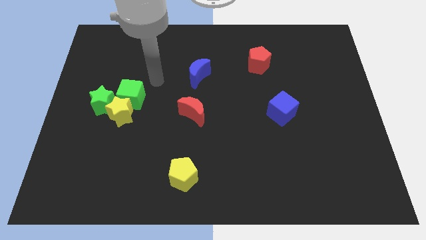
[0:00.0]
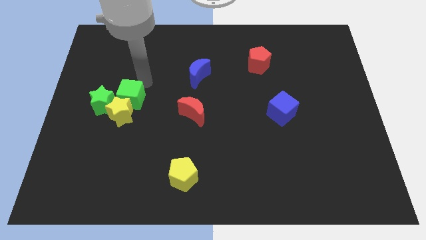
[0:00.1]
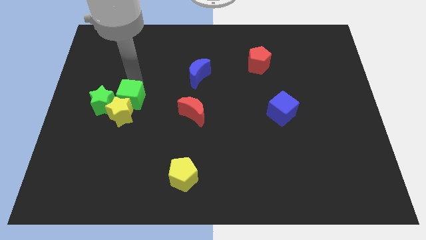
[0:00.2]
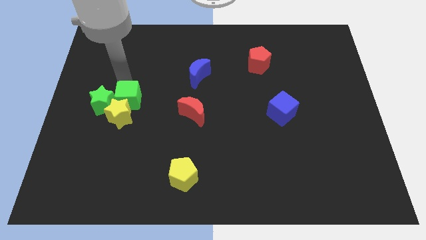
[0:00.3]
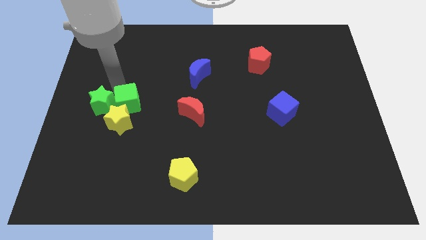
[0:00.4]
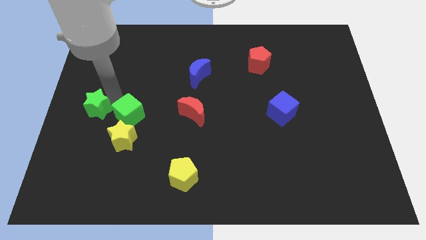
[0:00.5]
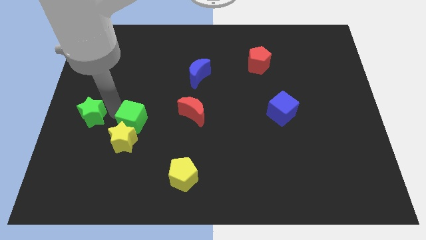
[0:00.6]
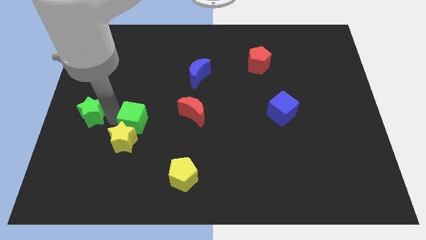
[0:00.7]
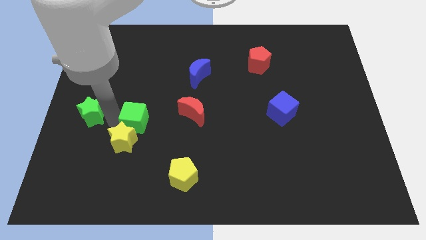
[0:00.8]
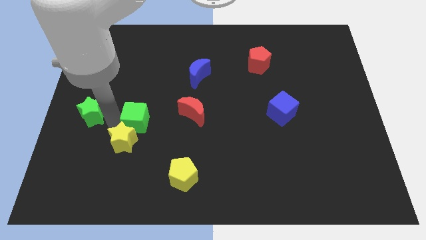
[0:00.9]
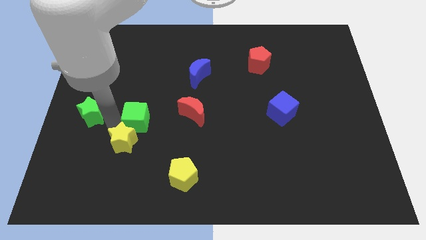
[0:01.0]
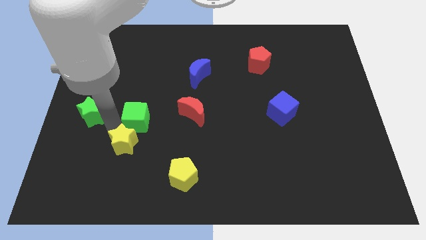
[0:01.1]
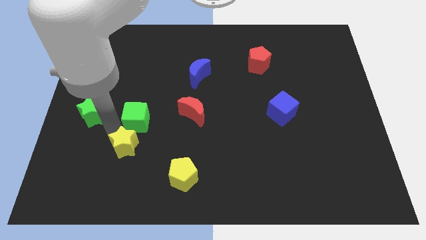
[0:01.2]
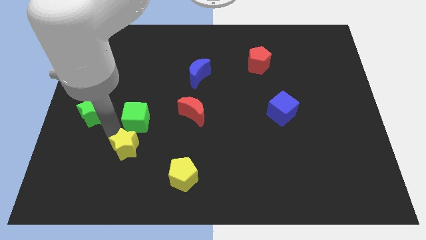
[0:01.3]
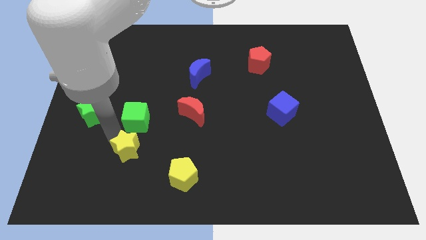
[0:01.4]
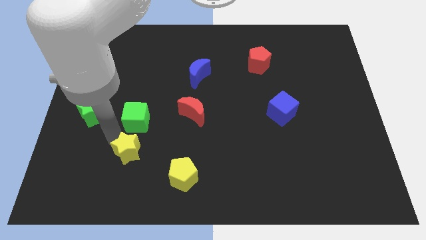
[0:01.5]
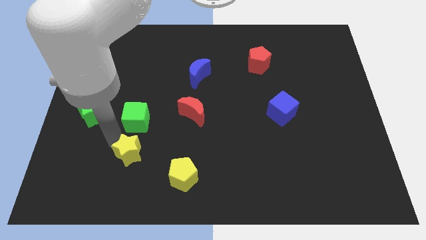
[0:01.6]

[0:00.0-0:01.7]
pull the yellow star apart from the green cube and green star

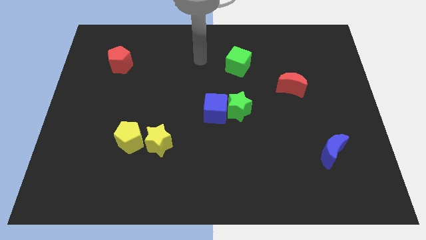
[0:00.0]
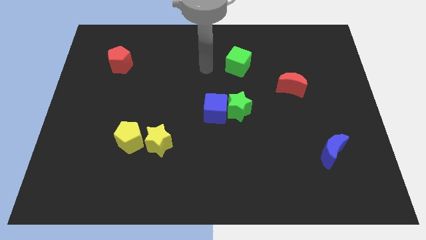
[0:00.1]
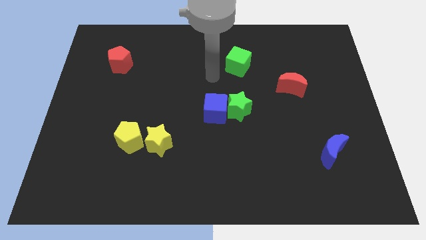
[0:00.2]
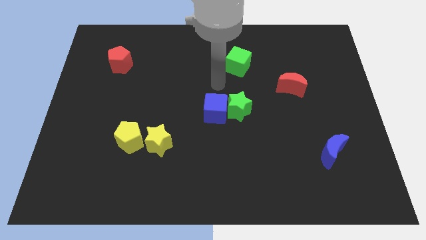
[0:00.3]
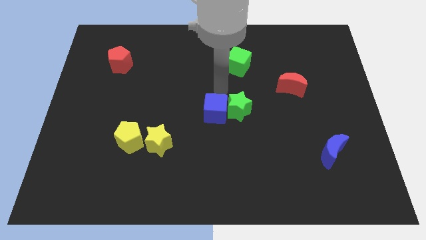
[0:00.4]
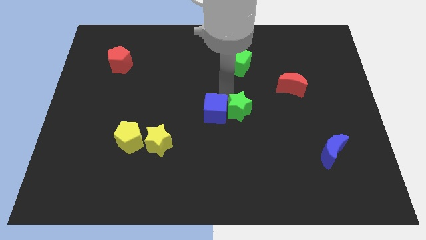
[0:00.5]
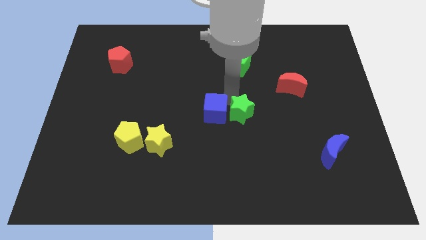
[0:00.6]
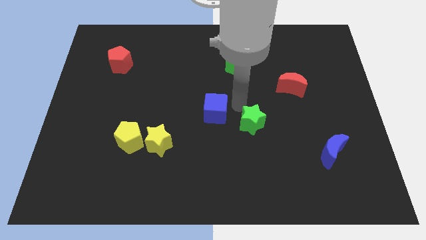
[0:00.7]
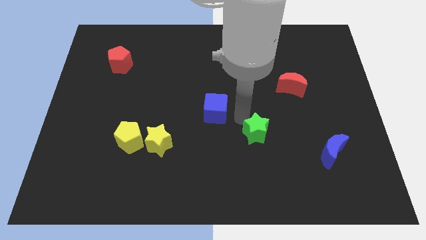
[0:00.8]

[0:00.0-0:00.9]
pull the blue cube apart from the green star

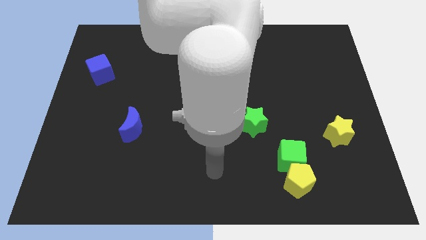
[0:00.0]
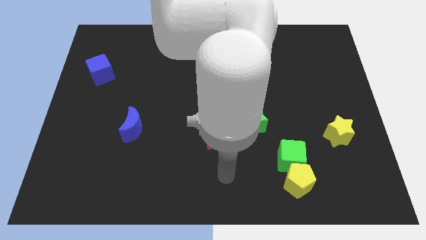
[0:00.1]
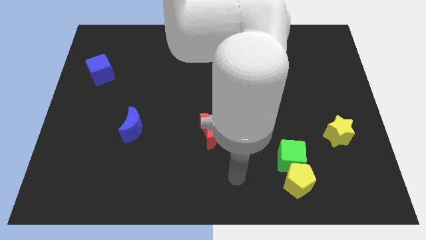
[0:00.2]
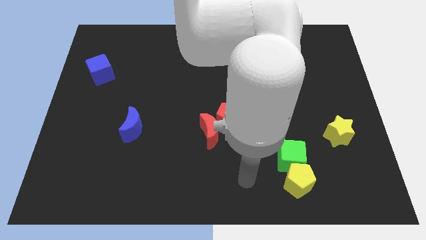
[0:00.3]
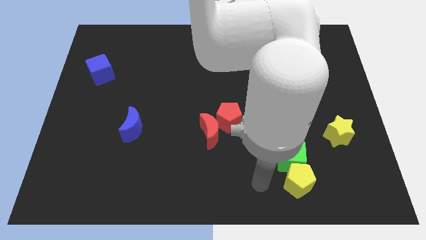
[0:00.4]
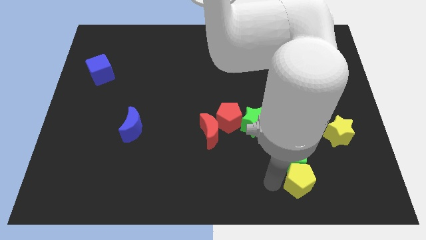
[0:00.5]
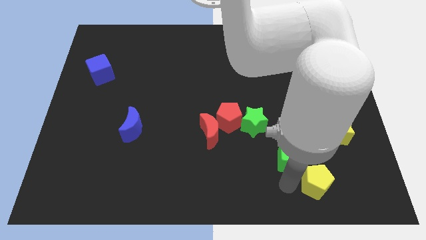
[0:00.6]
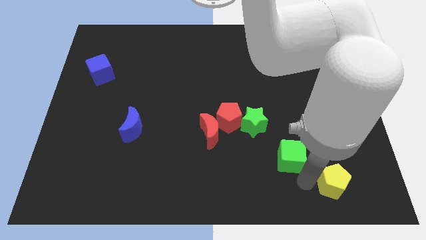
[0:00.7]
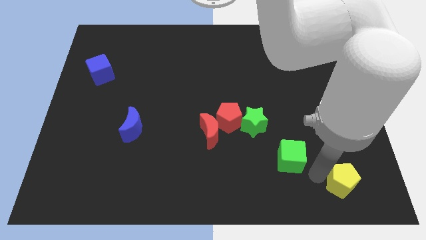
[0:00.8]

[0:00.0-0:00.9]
separate the green cube from the yellow pentagon

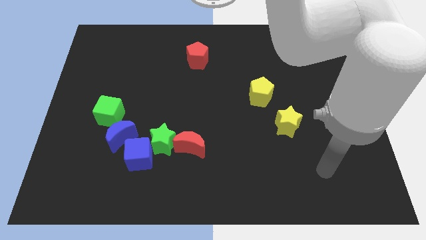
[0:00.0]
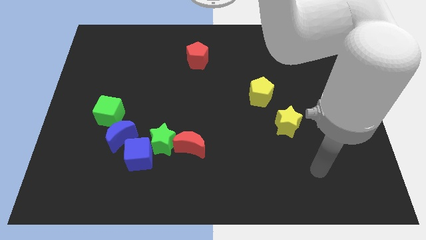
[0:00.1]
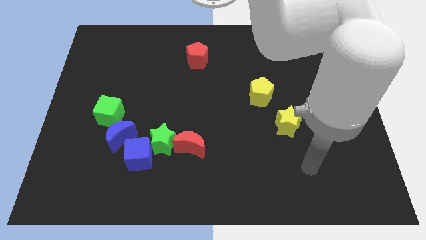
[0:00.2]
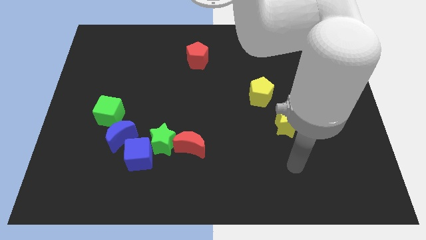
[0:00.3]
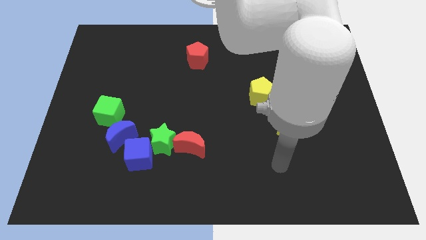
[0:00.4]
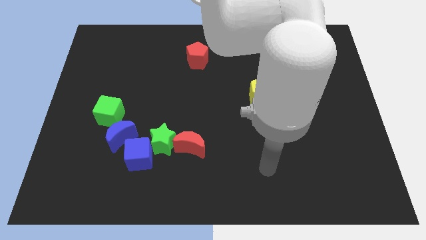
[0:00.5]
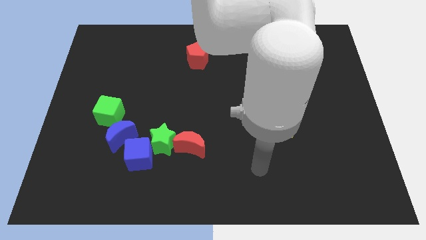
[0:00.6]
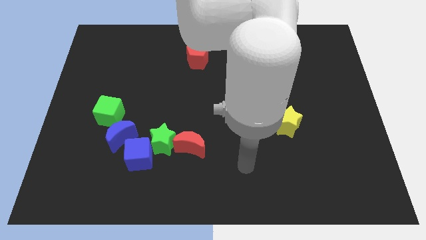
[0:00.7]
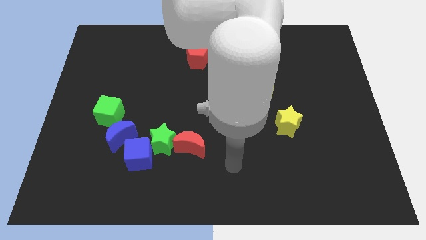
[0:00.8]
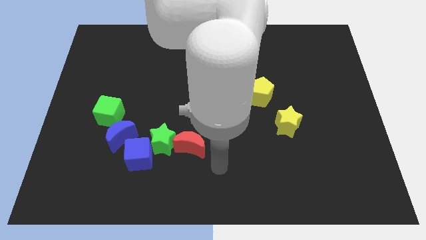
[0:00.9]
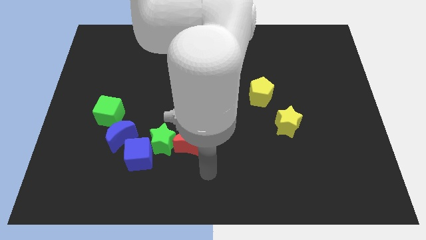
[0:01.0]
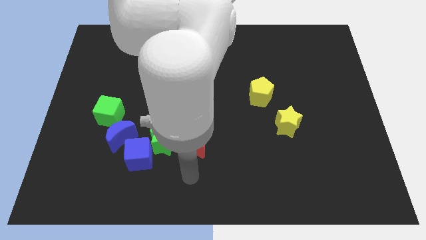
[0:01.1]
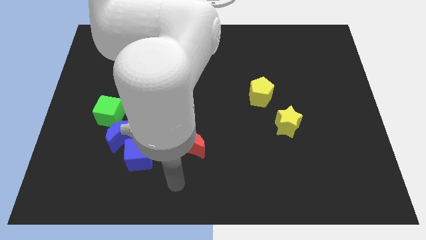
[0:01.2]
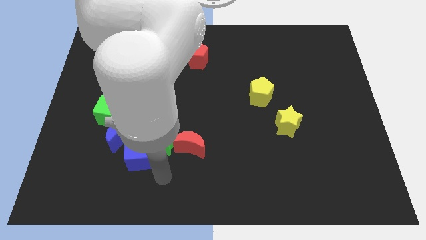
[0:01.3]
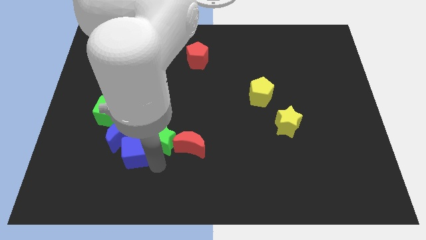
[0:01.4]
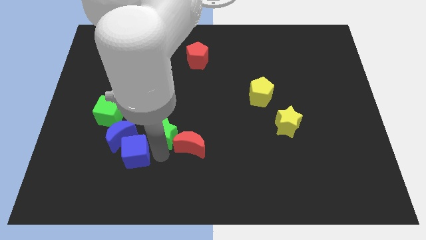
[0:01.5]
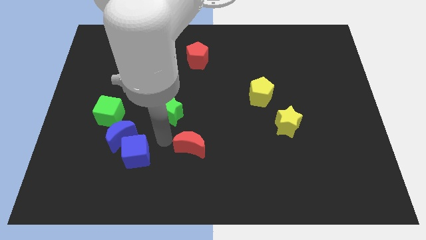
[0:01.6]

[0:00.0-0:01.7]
separate the red moon from the green star

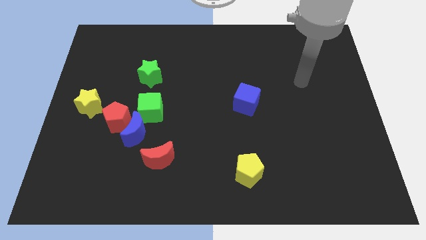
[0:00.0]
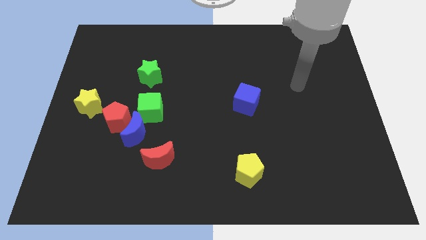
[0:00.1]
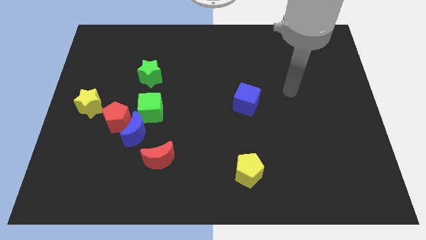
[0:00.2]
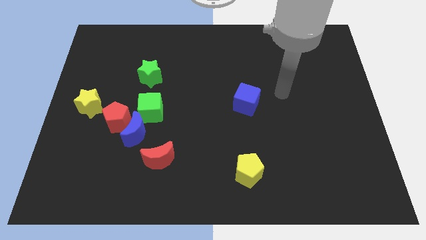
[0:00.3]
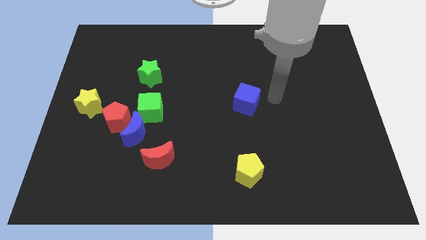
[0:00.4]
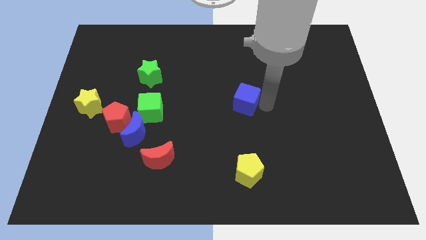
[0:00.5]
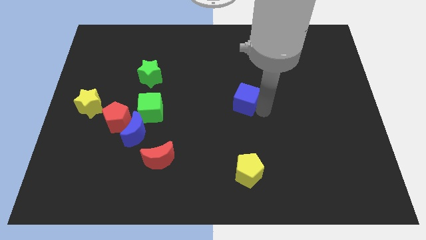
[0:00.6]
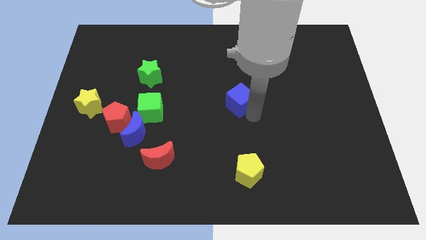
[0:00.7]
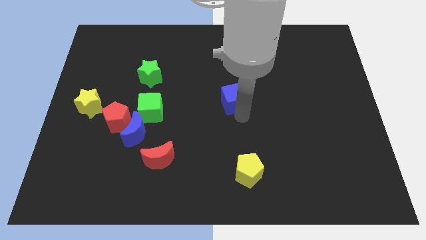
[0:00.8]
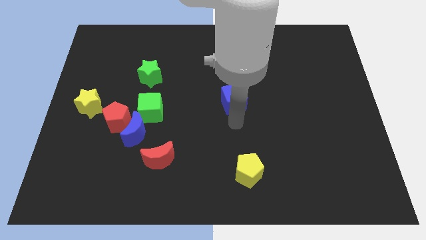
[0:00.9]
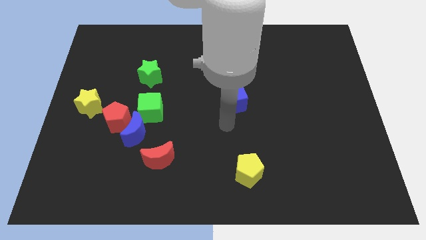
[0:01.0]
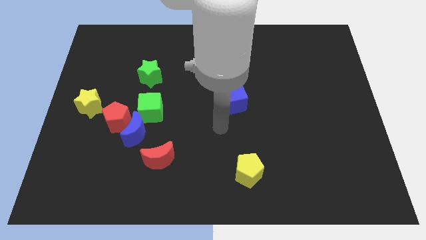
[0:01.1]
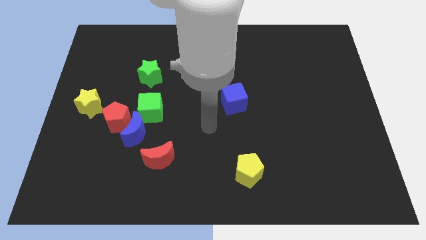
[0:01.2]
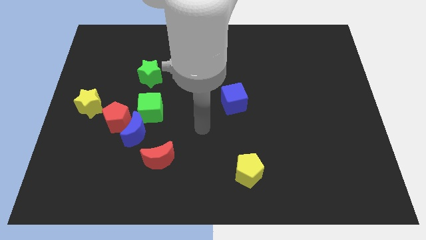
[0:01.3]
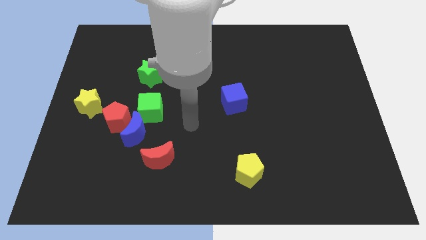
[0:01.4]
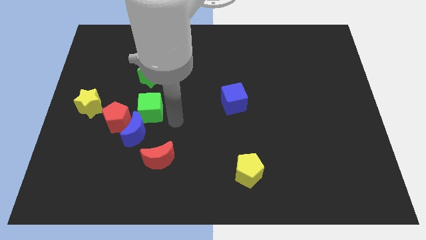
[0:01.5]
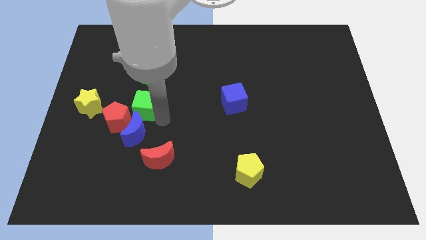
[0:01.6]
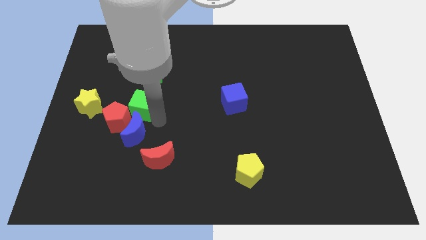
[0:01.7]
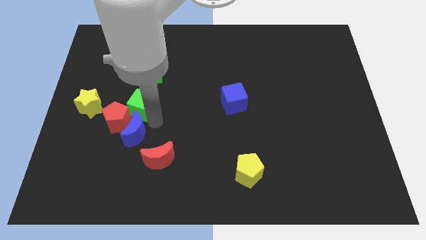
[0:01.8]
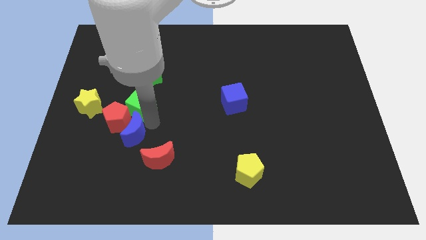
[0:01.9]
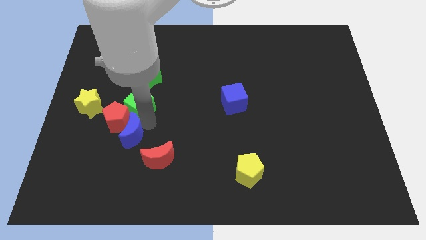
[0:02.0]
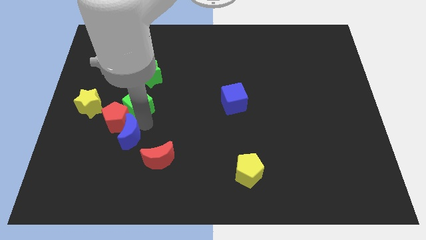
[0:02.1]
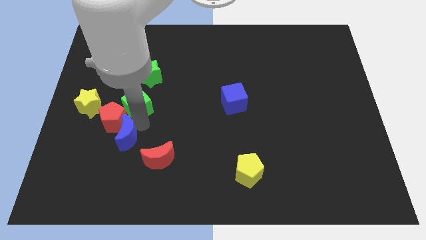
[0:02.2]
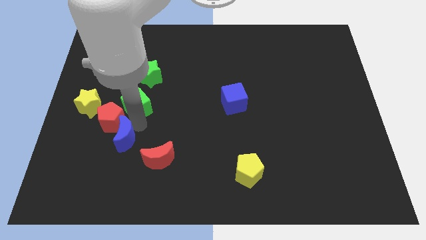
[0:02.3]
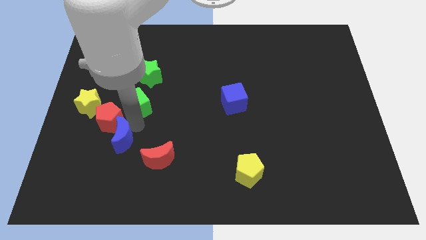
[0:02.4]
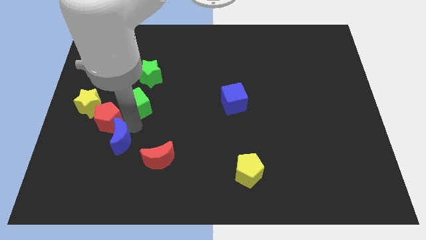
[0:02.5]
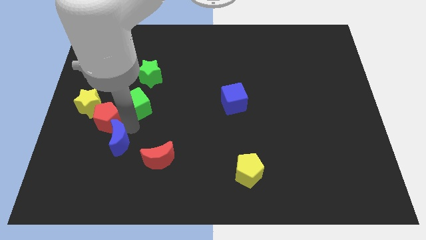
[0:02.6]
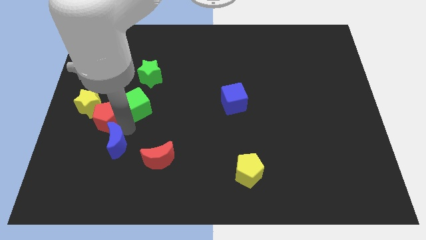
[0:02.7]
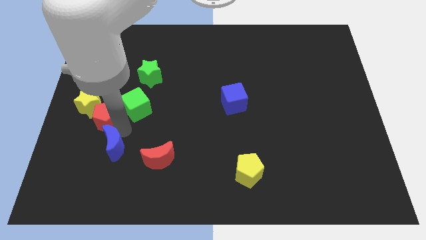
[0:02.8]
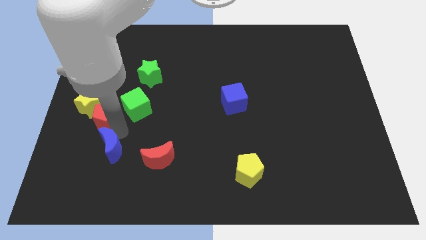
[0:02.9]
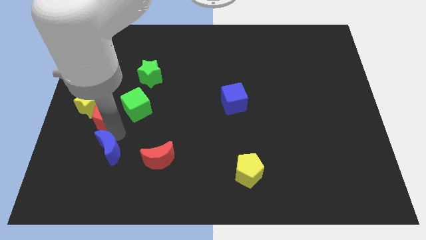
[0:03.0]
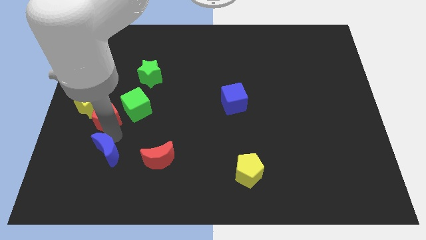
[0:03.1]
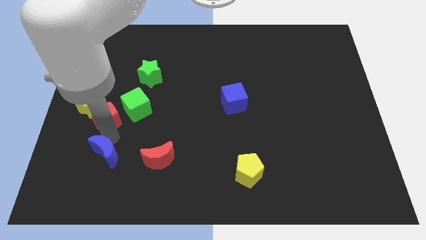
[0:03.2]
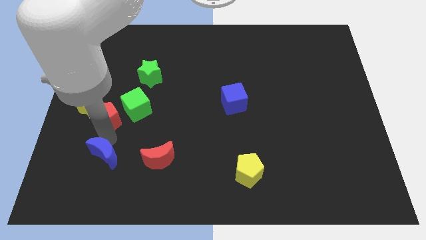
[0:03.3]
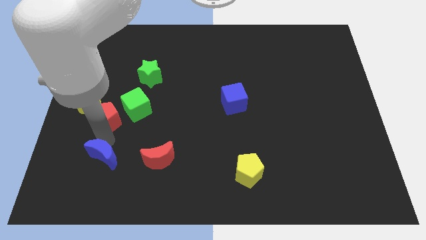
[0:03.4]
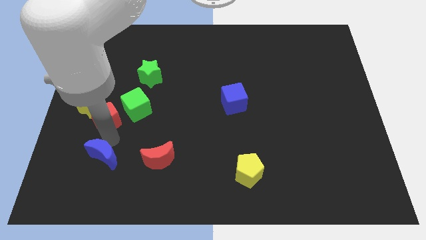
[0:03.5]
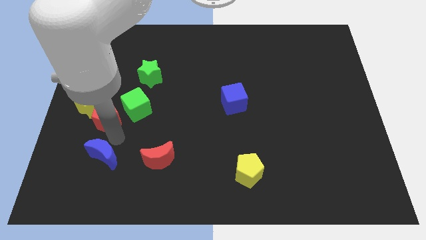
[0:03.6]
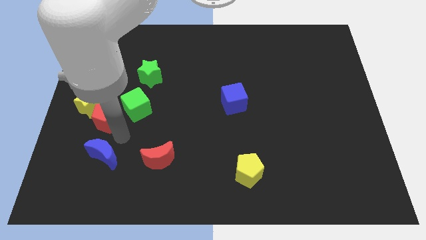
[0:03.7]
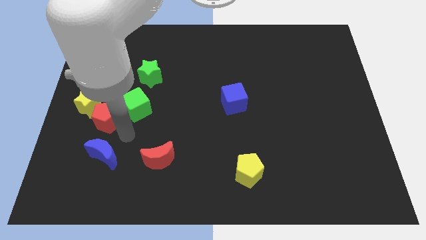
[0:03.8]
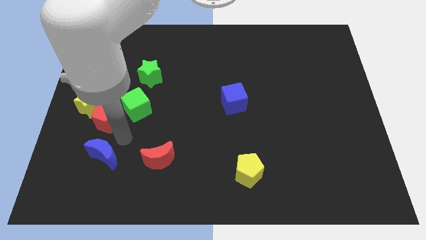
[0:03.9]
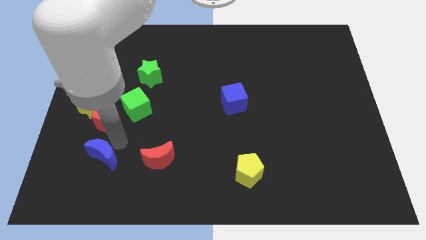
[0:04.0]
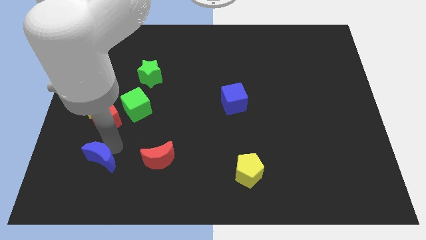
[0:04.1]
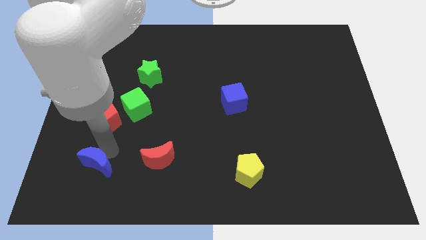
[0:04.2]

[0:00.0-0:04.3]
pull the blue moon apart from the group of blocks
